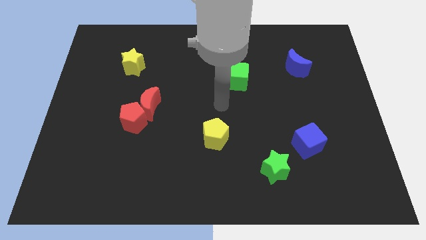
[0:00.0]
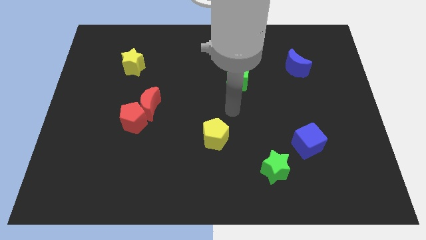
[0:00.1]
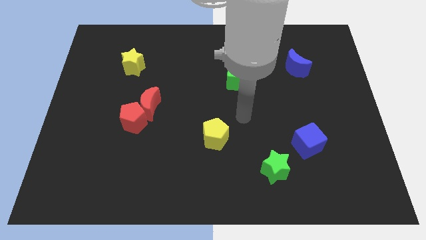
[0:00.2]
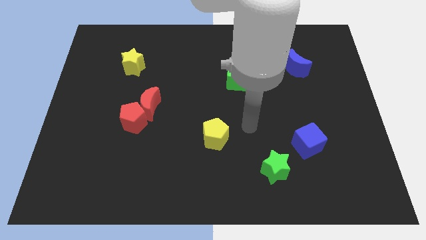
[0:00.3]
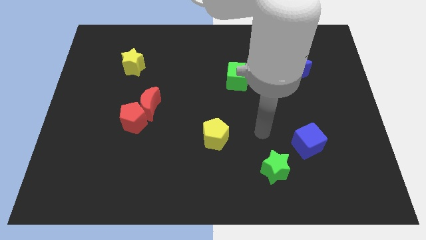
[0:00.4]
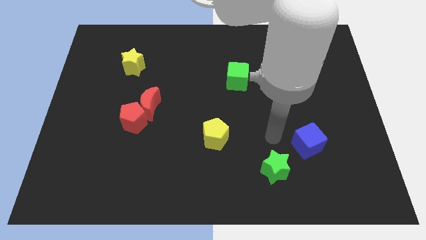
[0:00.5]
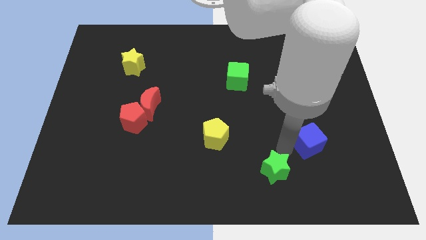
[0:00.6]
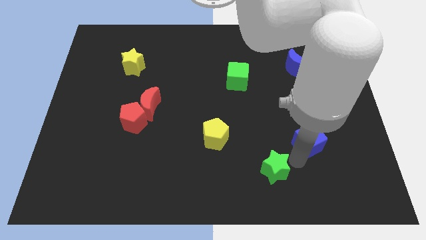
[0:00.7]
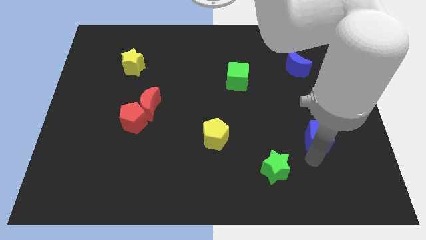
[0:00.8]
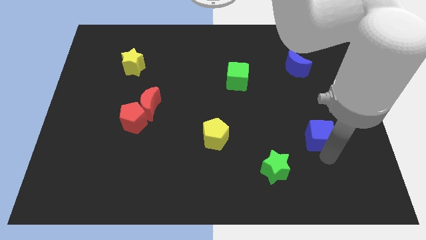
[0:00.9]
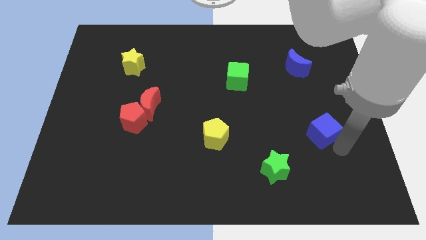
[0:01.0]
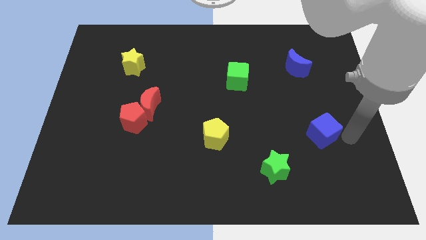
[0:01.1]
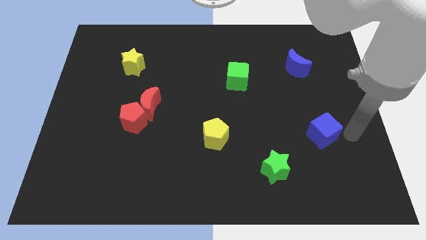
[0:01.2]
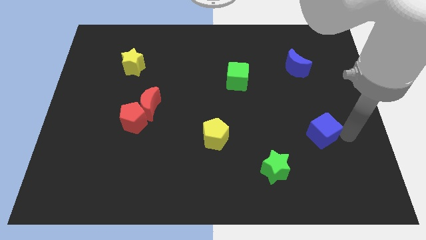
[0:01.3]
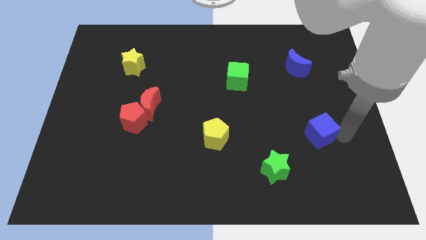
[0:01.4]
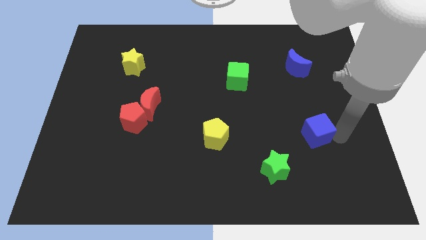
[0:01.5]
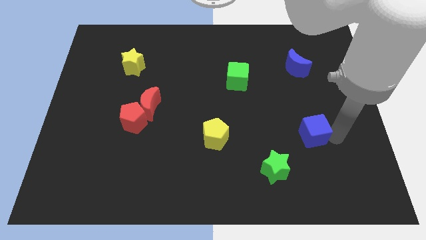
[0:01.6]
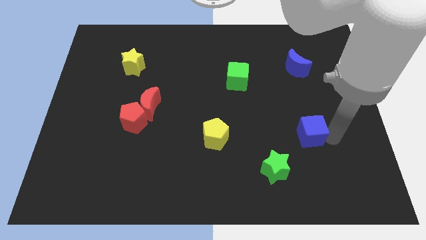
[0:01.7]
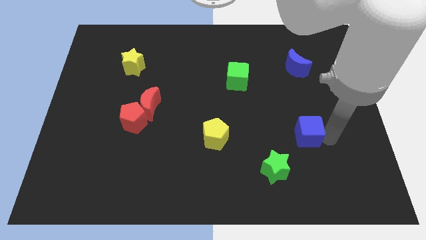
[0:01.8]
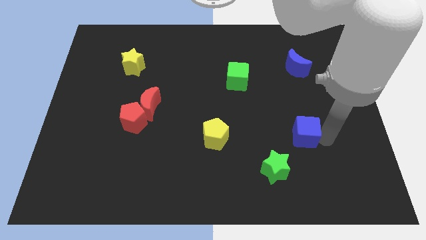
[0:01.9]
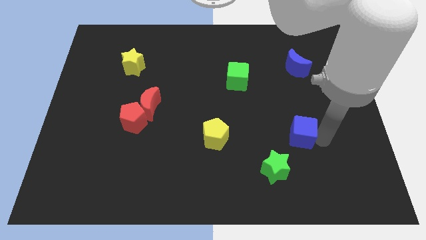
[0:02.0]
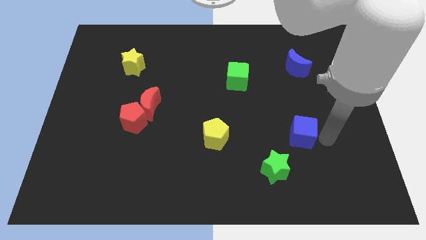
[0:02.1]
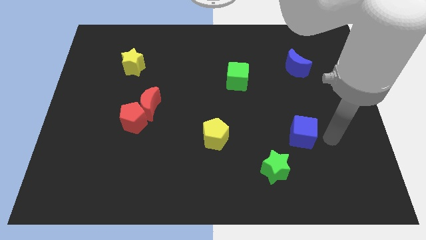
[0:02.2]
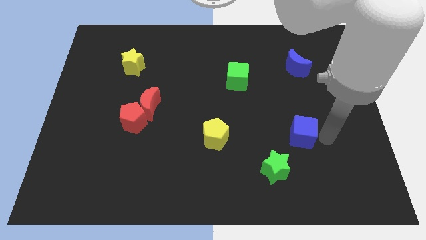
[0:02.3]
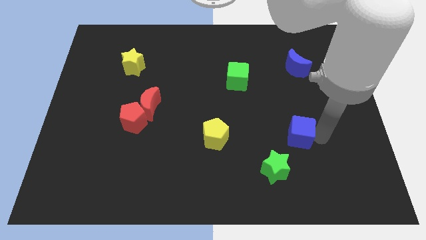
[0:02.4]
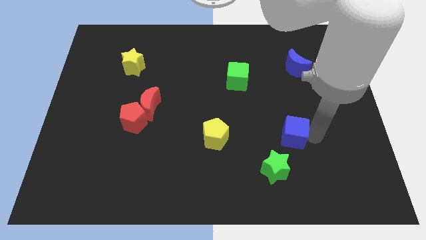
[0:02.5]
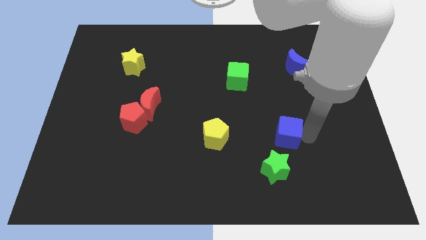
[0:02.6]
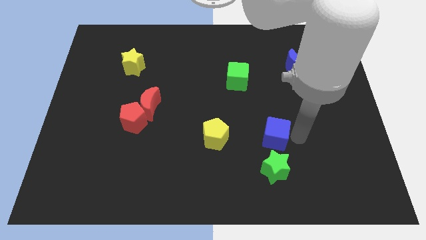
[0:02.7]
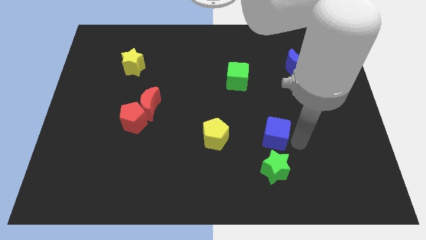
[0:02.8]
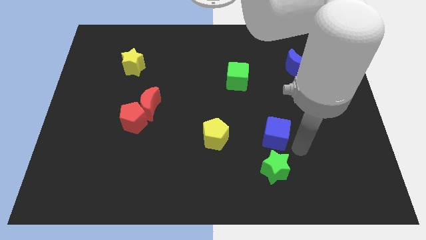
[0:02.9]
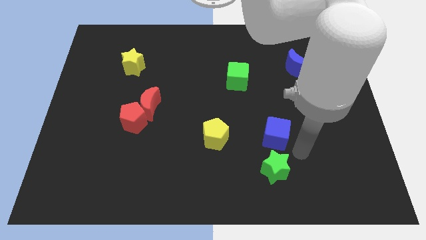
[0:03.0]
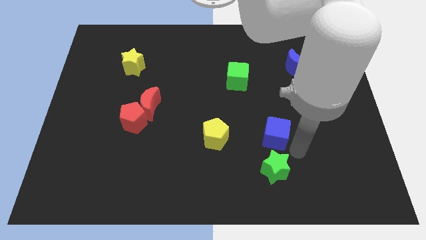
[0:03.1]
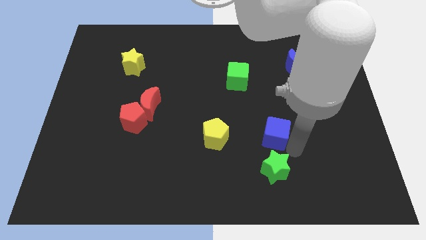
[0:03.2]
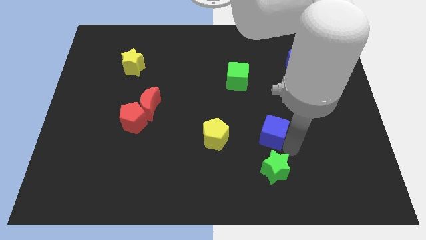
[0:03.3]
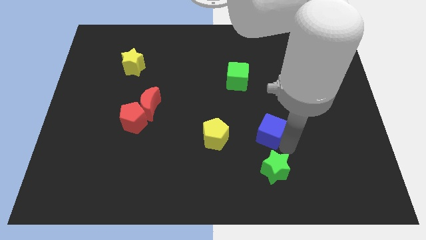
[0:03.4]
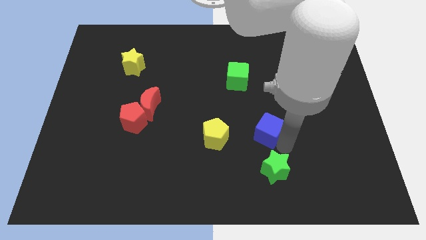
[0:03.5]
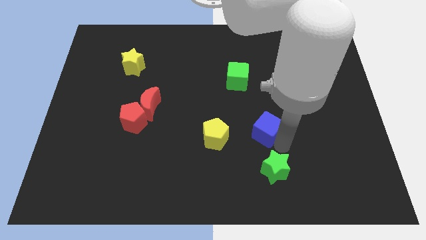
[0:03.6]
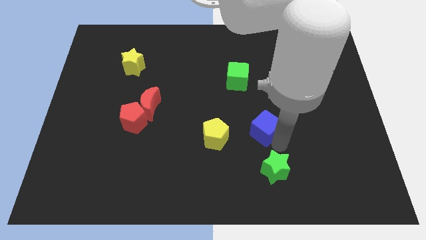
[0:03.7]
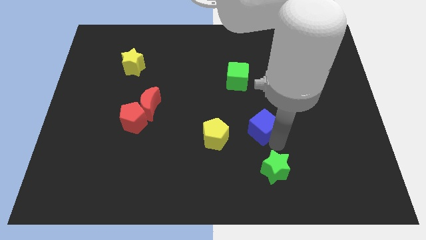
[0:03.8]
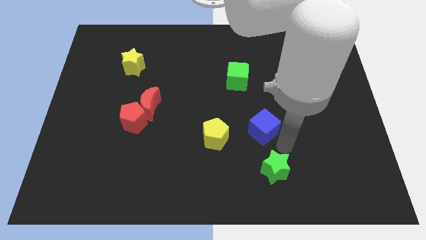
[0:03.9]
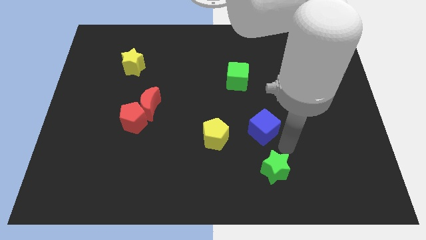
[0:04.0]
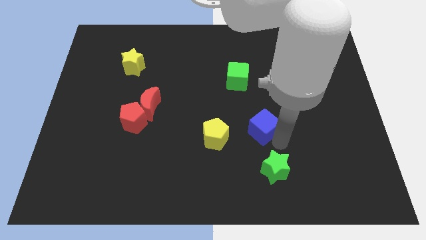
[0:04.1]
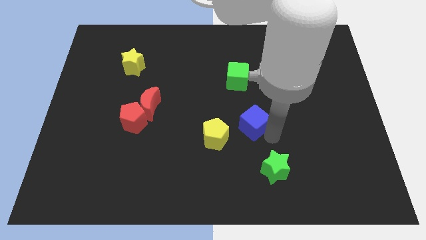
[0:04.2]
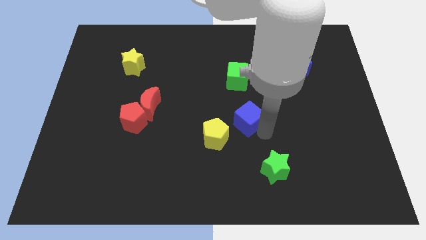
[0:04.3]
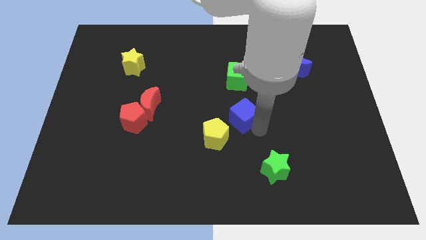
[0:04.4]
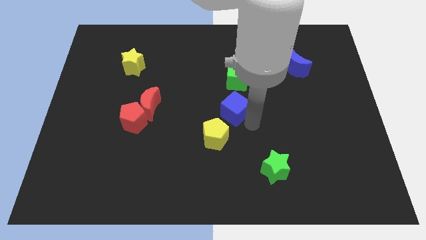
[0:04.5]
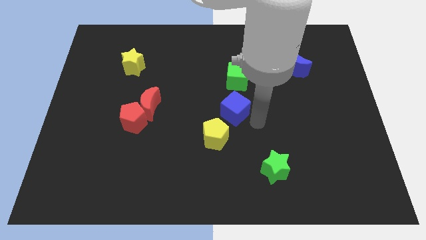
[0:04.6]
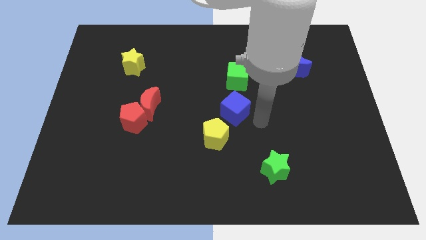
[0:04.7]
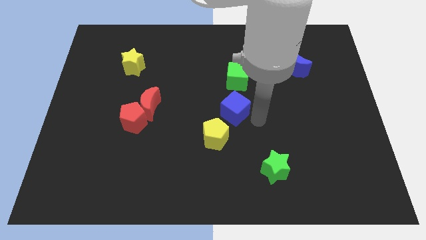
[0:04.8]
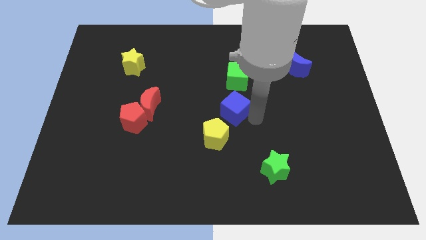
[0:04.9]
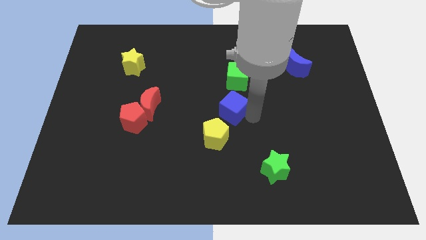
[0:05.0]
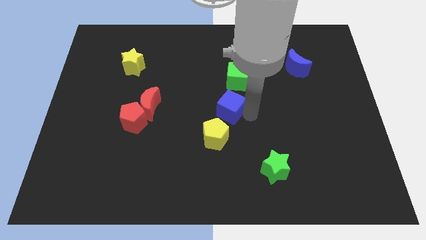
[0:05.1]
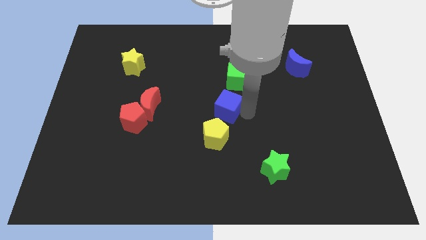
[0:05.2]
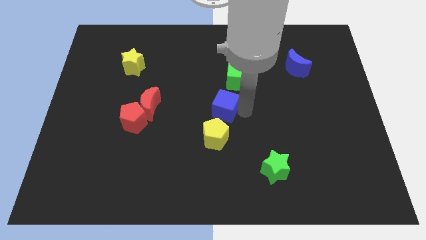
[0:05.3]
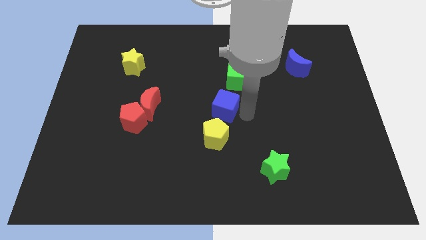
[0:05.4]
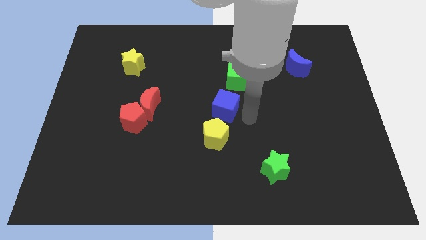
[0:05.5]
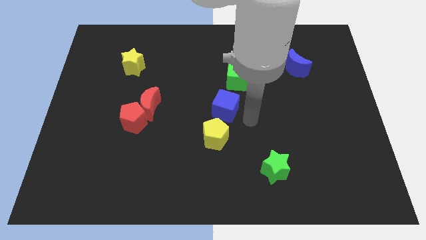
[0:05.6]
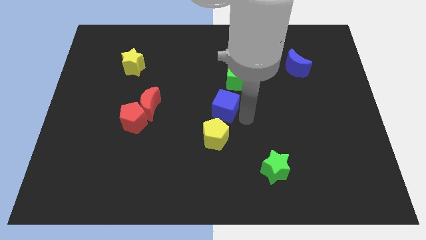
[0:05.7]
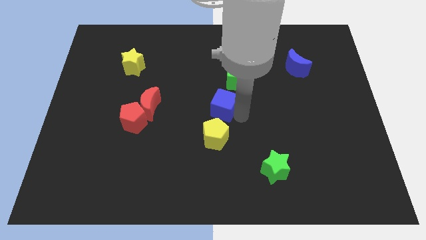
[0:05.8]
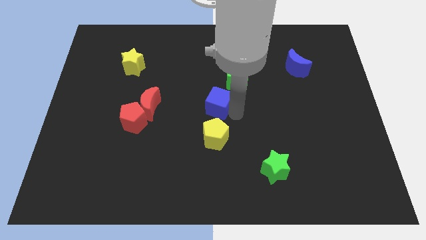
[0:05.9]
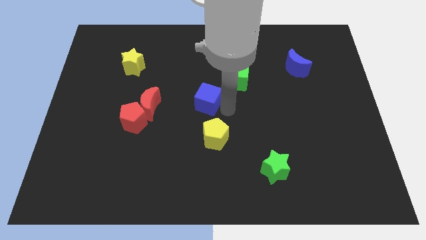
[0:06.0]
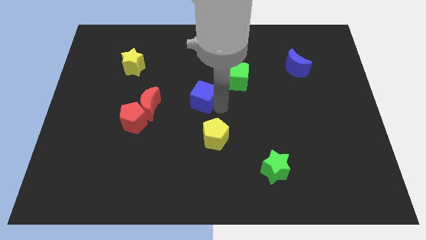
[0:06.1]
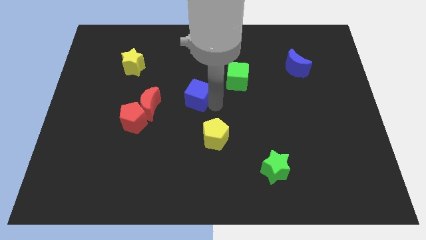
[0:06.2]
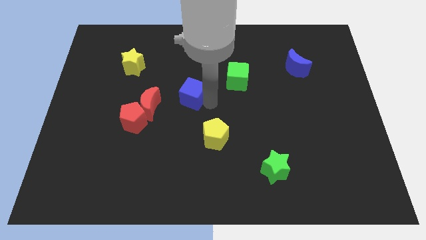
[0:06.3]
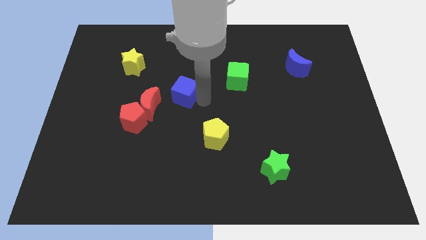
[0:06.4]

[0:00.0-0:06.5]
slide the blue cube diagonally up and to the right of the red moon

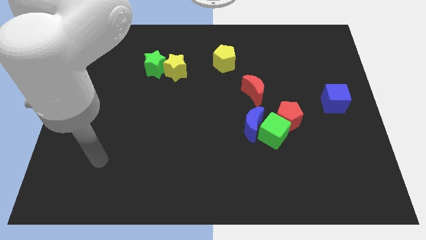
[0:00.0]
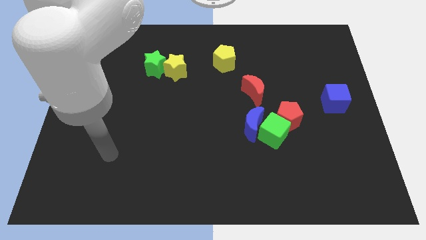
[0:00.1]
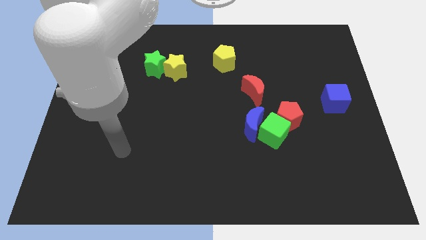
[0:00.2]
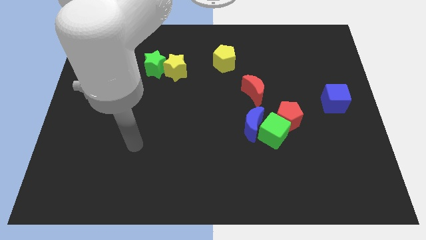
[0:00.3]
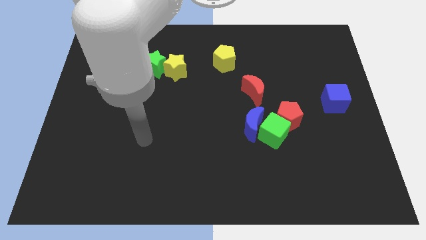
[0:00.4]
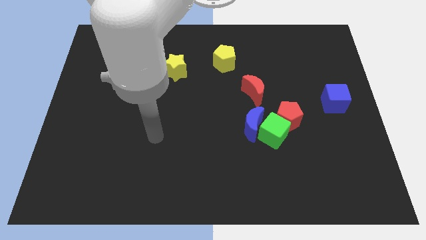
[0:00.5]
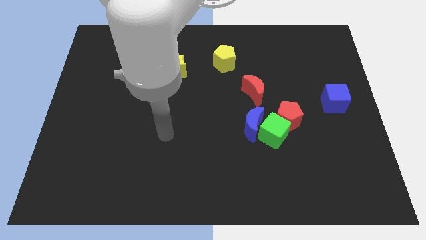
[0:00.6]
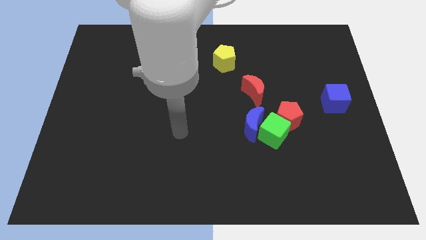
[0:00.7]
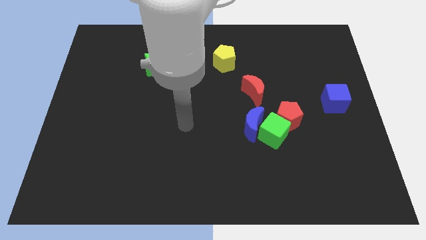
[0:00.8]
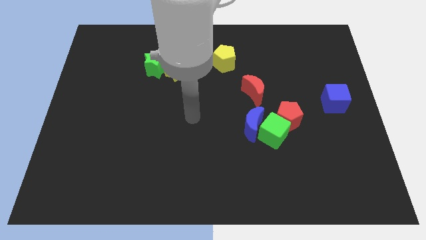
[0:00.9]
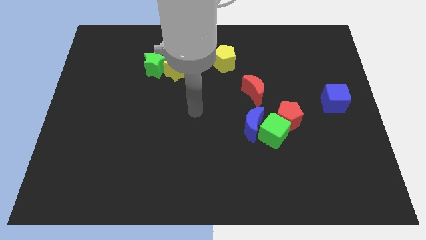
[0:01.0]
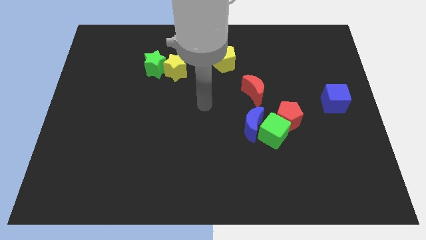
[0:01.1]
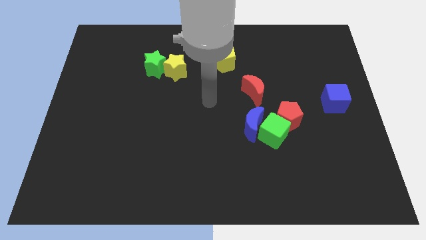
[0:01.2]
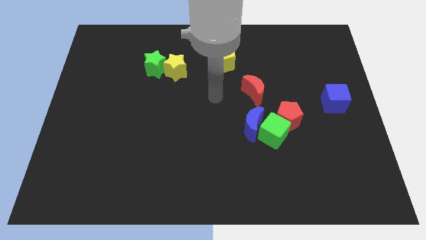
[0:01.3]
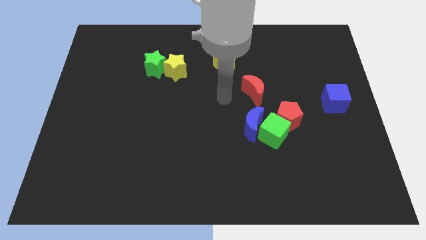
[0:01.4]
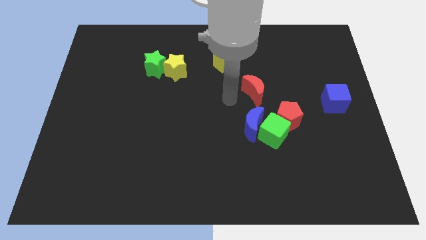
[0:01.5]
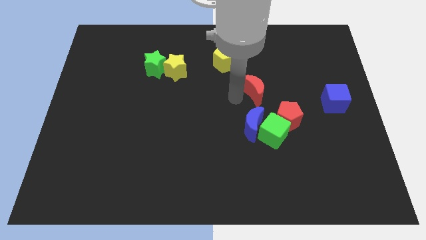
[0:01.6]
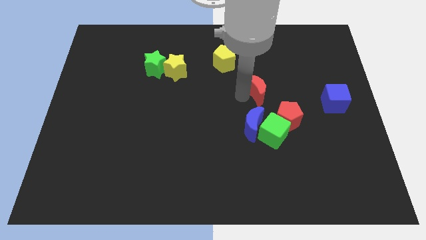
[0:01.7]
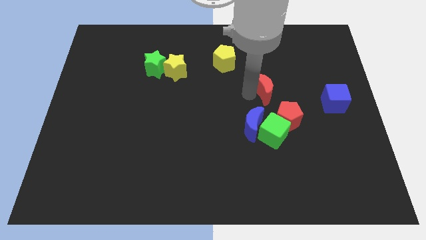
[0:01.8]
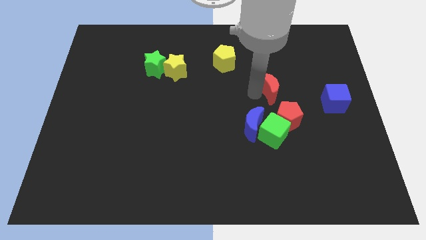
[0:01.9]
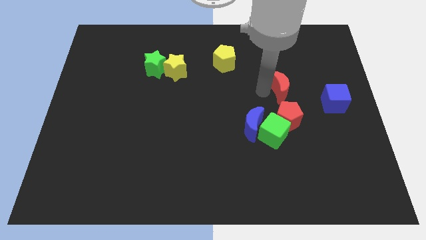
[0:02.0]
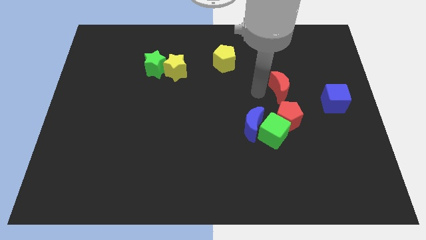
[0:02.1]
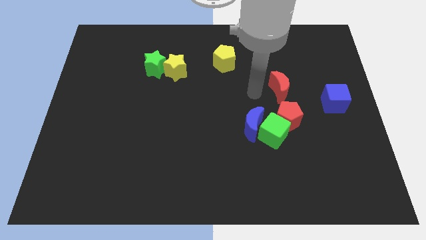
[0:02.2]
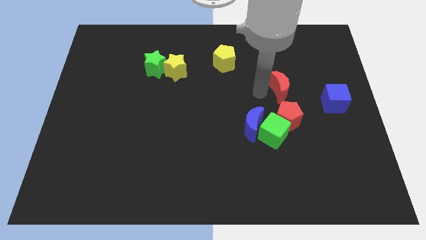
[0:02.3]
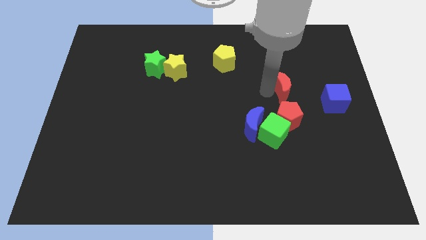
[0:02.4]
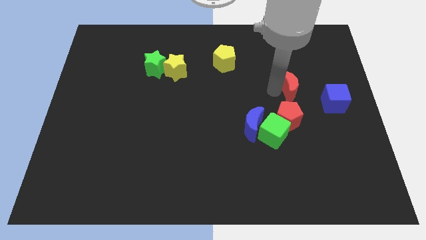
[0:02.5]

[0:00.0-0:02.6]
put the red moon diagonally up and to the left of the blue cube
